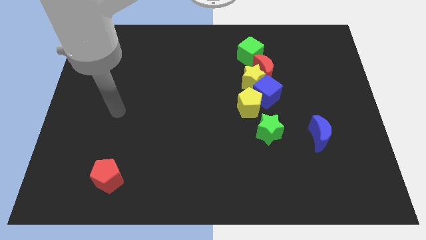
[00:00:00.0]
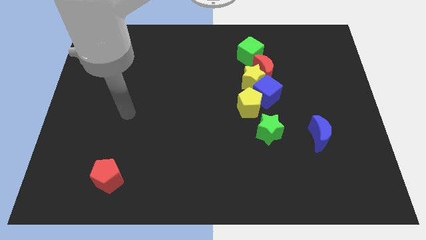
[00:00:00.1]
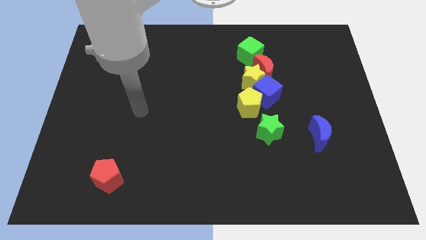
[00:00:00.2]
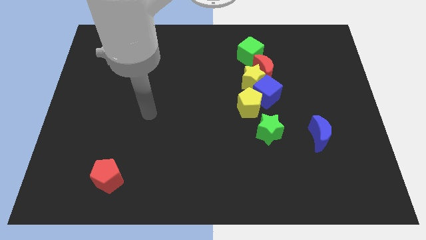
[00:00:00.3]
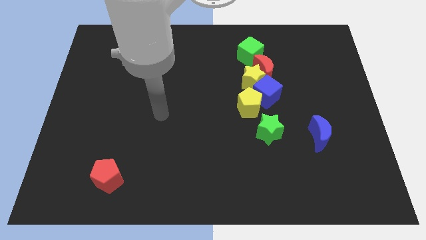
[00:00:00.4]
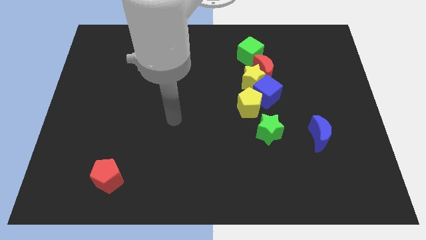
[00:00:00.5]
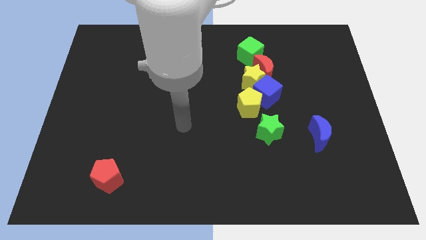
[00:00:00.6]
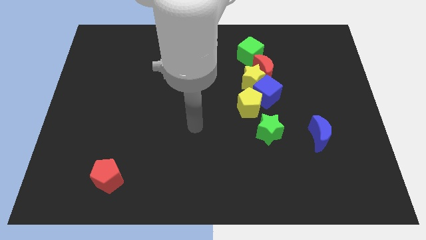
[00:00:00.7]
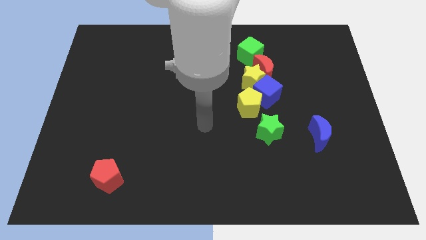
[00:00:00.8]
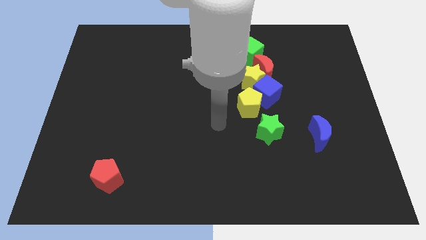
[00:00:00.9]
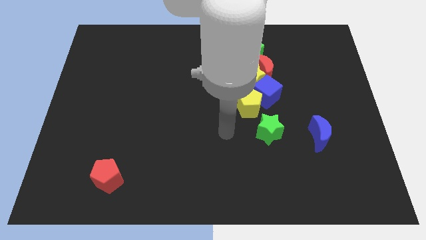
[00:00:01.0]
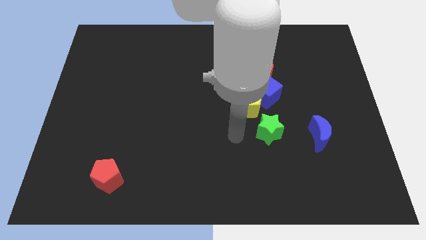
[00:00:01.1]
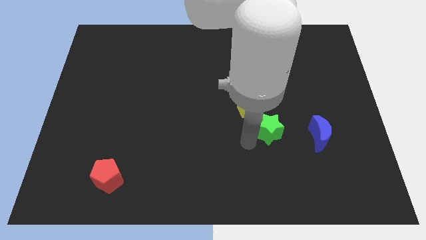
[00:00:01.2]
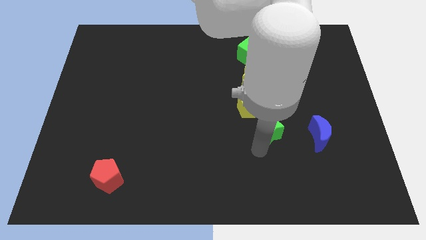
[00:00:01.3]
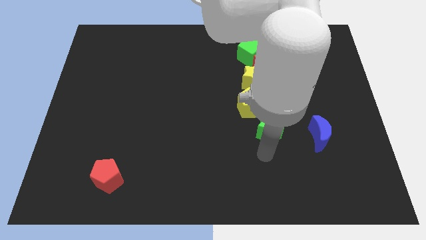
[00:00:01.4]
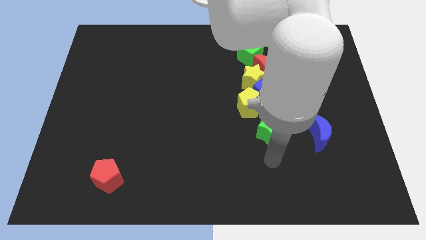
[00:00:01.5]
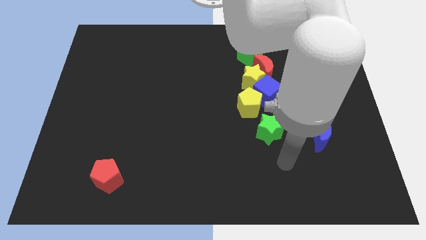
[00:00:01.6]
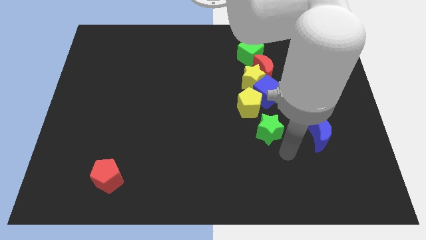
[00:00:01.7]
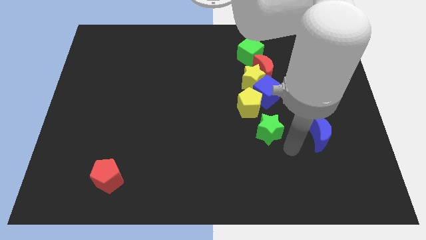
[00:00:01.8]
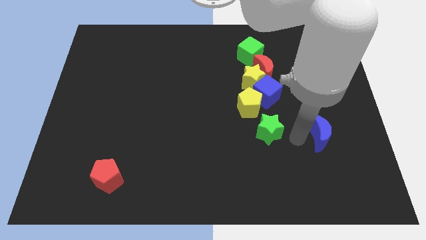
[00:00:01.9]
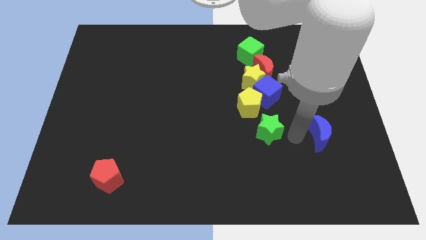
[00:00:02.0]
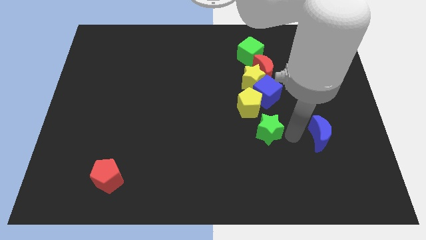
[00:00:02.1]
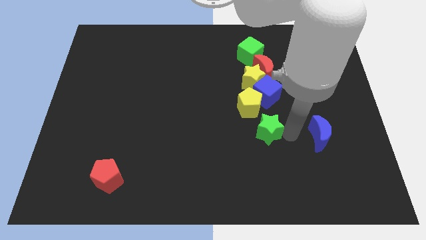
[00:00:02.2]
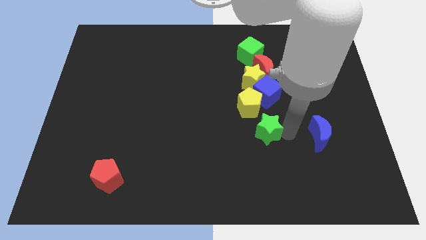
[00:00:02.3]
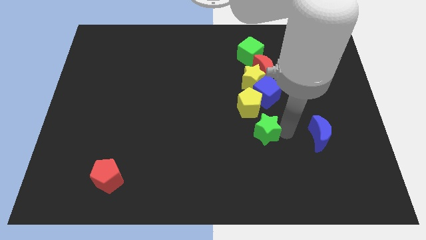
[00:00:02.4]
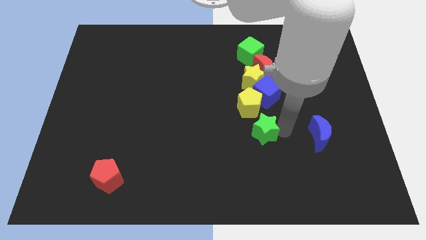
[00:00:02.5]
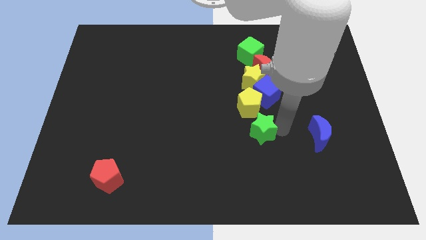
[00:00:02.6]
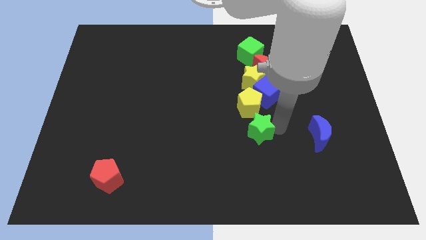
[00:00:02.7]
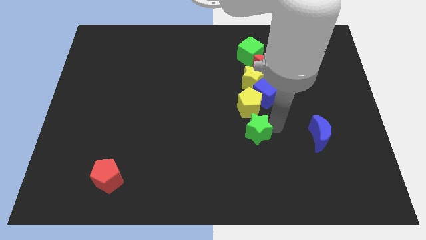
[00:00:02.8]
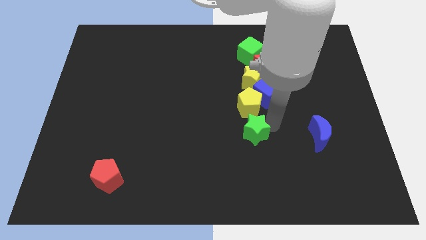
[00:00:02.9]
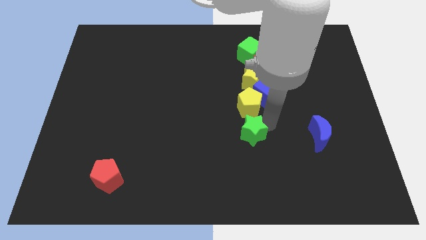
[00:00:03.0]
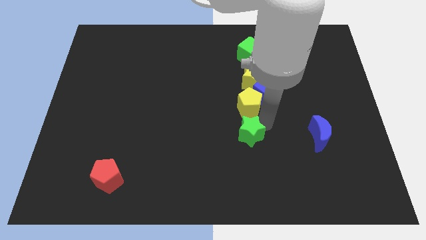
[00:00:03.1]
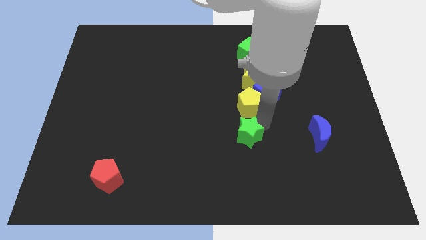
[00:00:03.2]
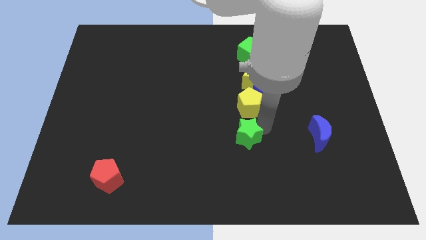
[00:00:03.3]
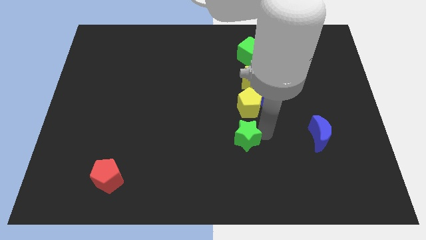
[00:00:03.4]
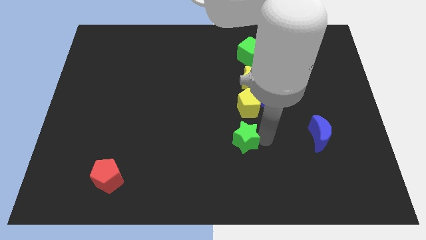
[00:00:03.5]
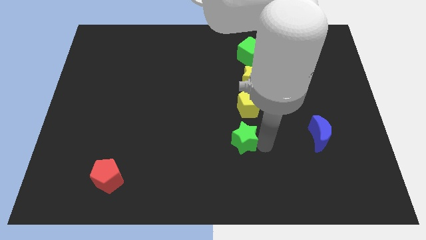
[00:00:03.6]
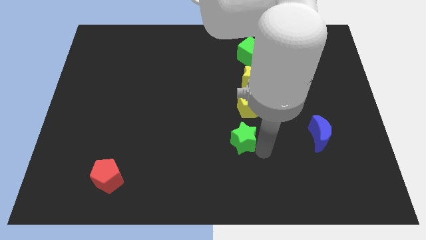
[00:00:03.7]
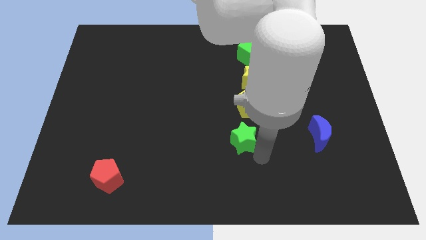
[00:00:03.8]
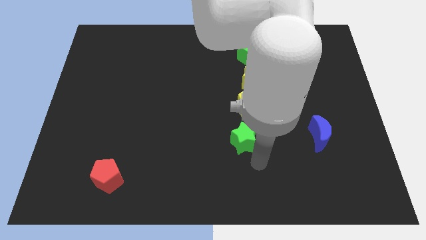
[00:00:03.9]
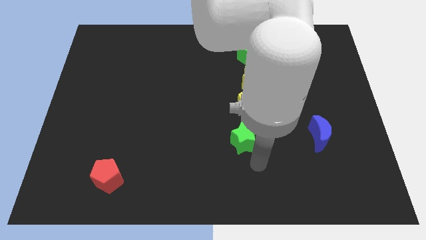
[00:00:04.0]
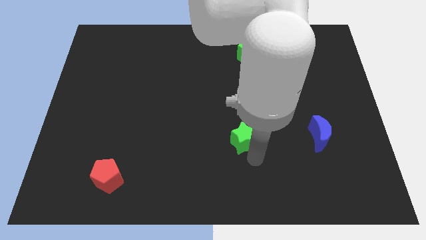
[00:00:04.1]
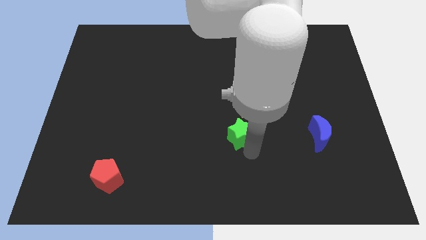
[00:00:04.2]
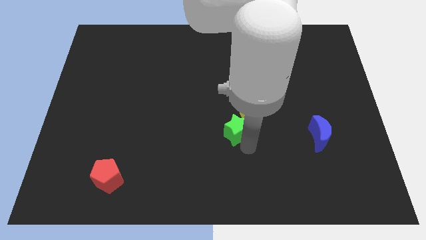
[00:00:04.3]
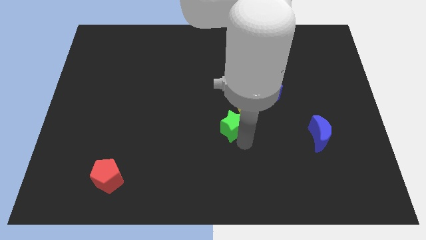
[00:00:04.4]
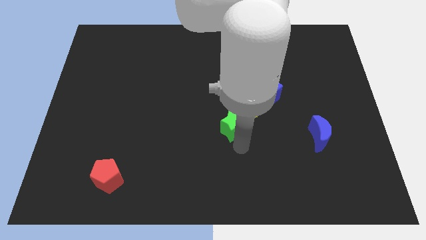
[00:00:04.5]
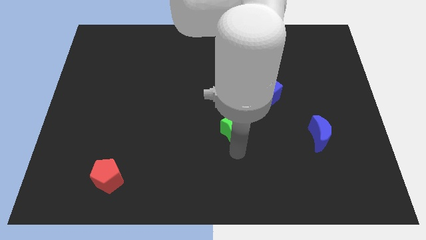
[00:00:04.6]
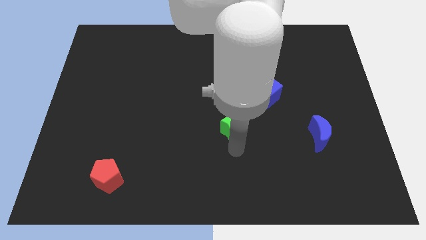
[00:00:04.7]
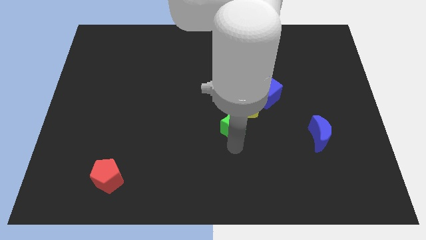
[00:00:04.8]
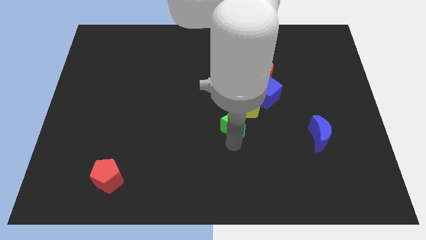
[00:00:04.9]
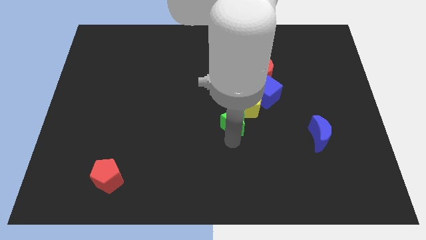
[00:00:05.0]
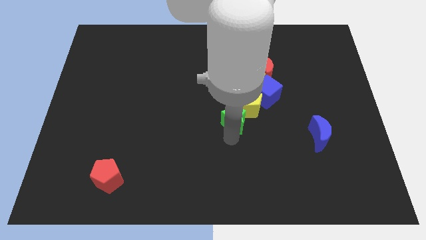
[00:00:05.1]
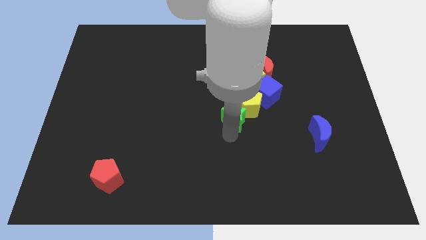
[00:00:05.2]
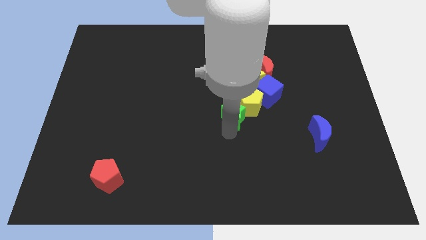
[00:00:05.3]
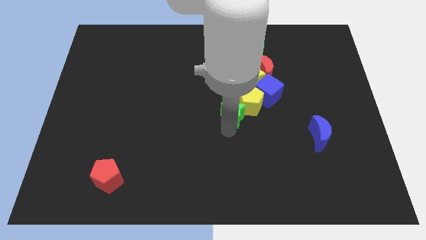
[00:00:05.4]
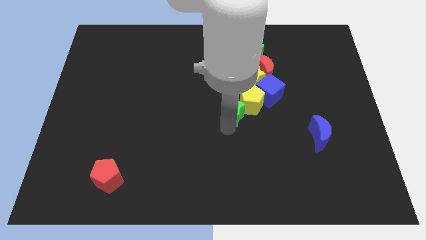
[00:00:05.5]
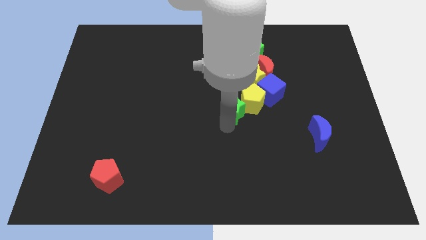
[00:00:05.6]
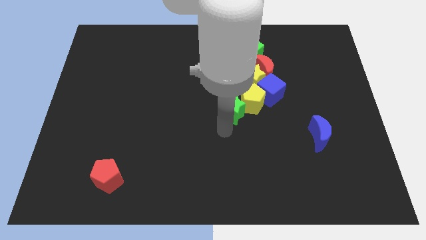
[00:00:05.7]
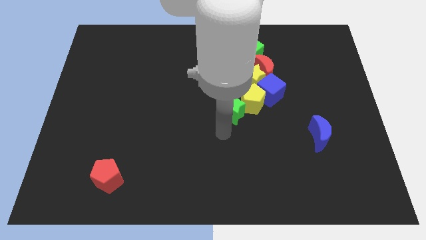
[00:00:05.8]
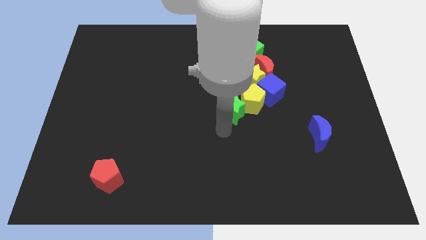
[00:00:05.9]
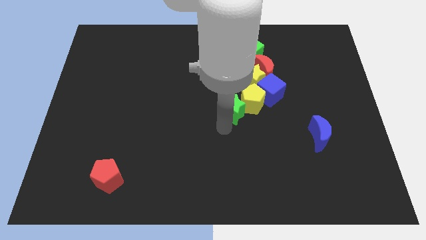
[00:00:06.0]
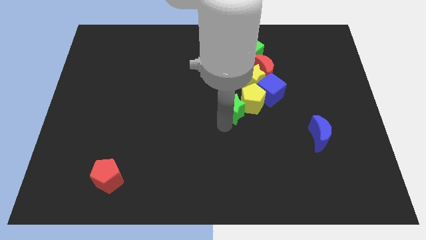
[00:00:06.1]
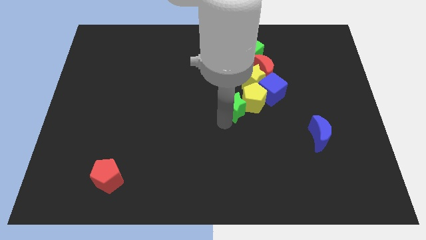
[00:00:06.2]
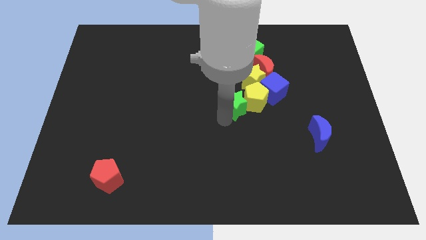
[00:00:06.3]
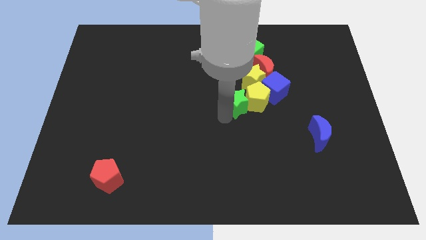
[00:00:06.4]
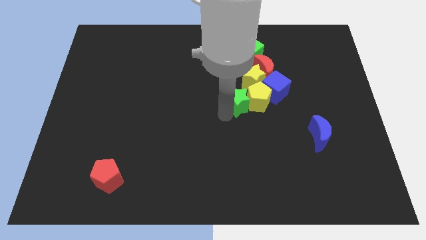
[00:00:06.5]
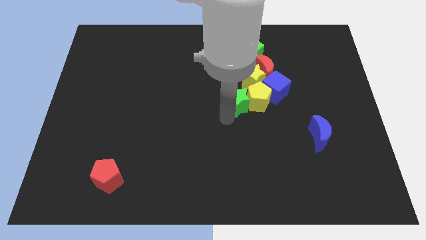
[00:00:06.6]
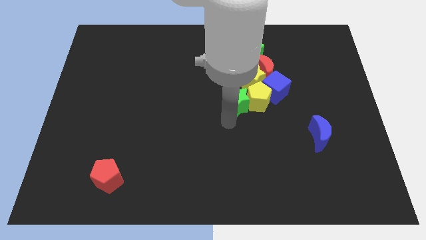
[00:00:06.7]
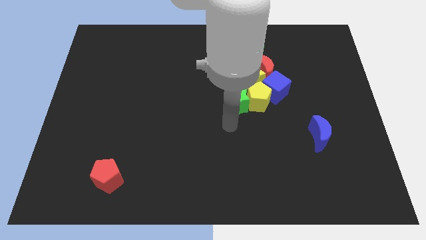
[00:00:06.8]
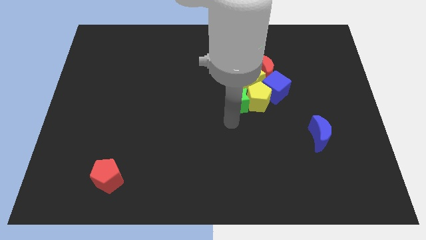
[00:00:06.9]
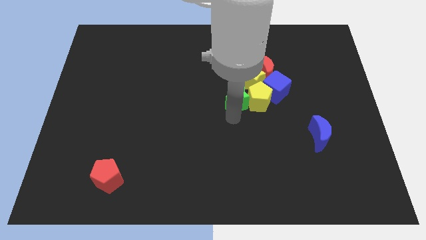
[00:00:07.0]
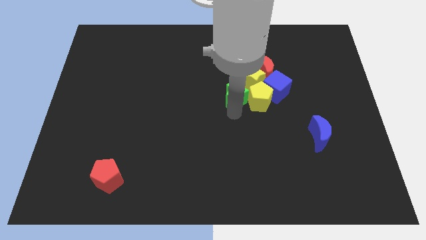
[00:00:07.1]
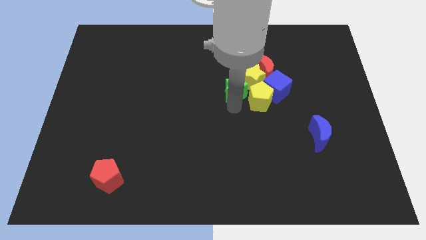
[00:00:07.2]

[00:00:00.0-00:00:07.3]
push the green star close to the yellow star

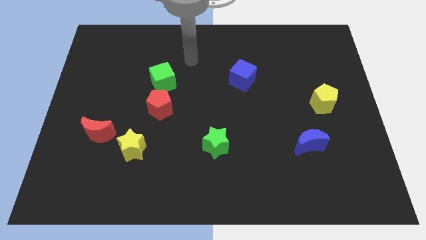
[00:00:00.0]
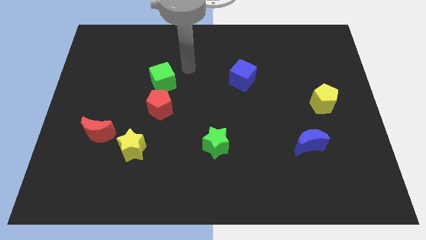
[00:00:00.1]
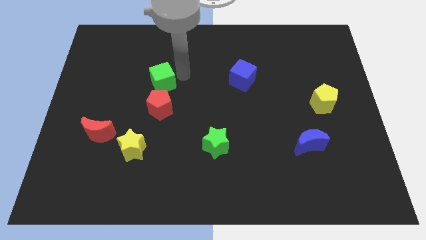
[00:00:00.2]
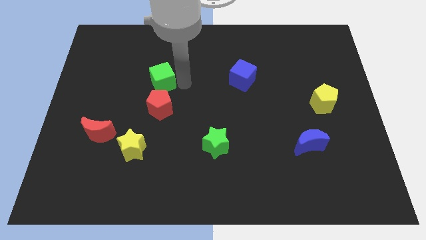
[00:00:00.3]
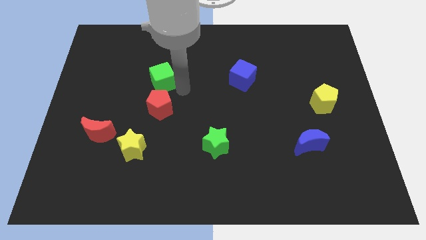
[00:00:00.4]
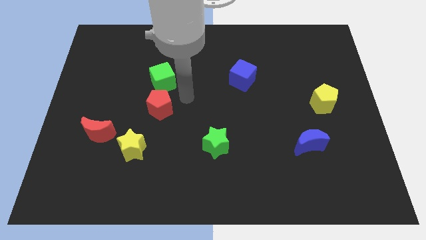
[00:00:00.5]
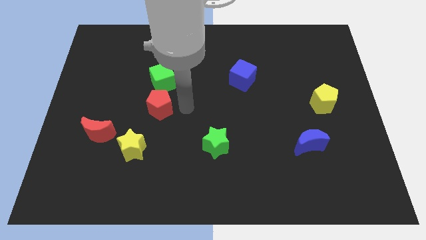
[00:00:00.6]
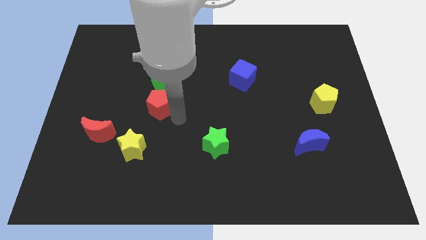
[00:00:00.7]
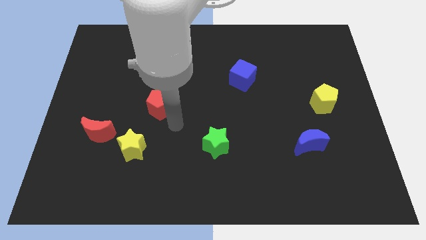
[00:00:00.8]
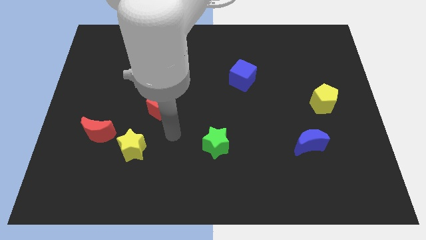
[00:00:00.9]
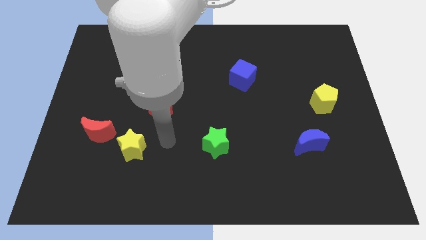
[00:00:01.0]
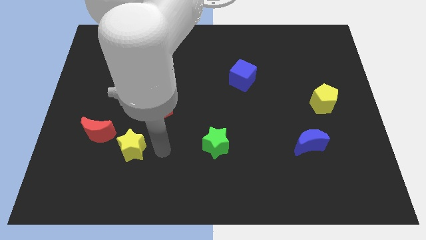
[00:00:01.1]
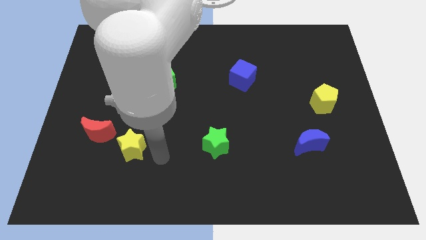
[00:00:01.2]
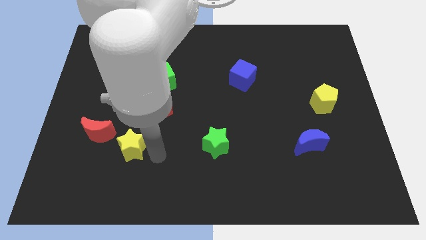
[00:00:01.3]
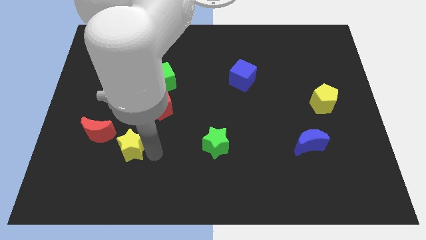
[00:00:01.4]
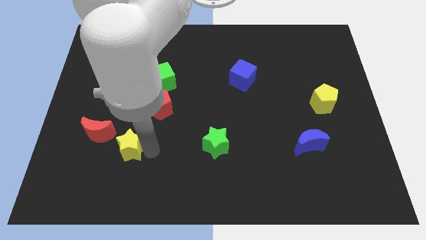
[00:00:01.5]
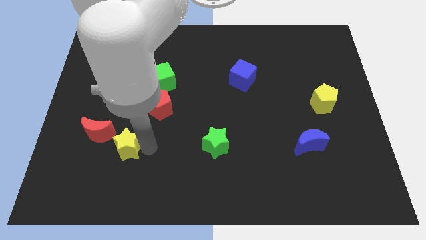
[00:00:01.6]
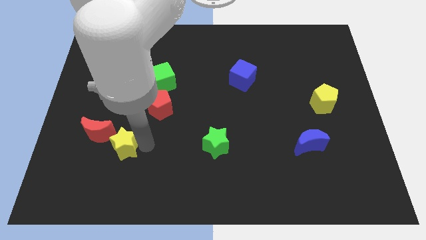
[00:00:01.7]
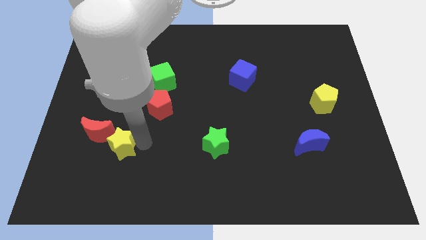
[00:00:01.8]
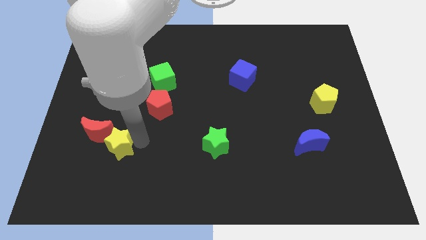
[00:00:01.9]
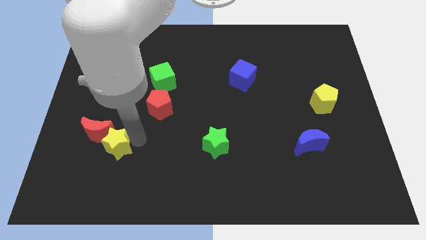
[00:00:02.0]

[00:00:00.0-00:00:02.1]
move the yellow star close to the red moon
